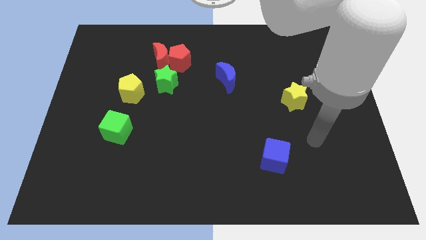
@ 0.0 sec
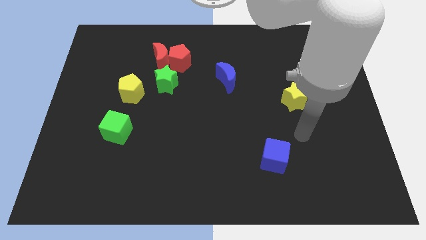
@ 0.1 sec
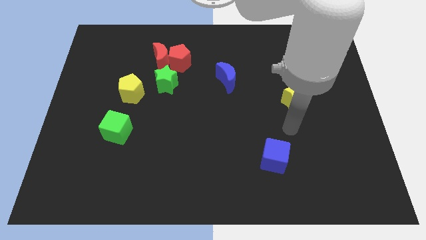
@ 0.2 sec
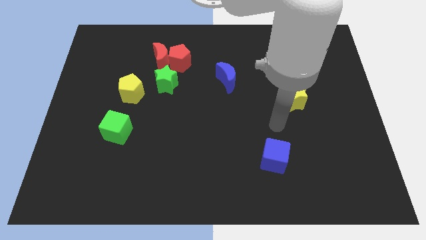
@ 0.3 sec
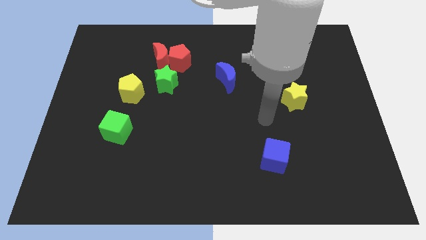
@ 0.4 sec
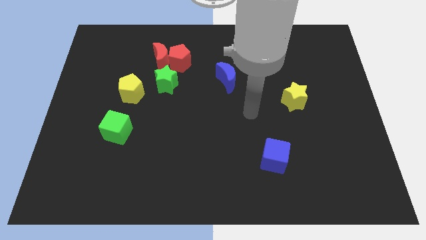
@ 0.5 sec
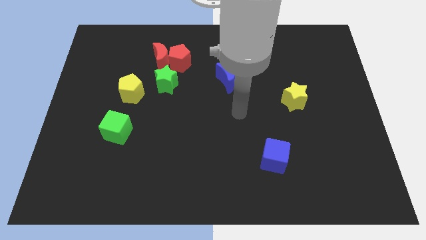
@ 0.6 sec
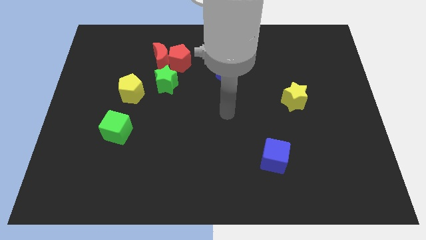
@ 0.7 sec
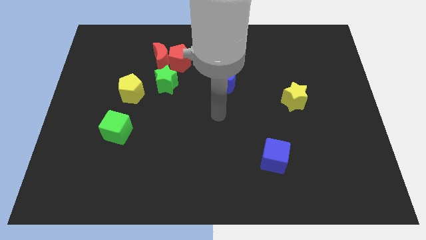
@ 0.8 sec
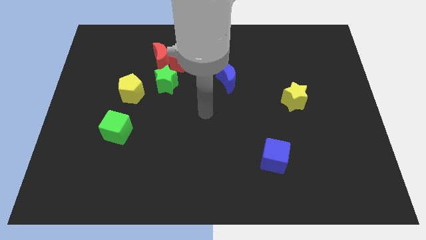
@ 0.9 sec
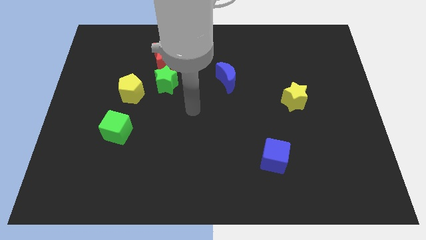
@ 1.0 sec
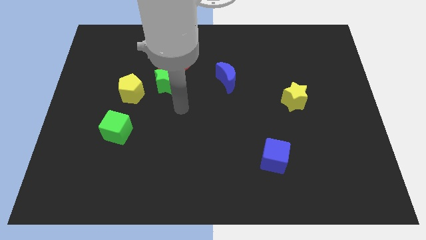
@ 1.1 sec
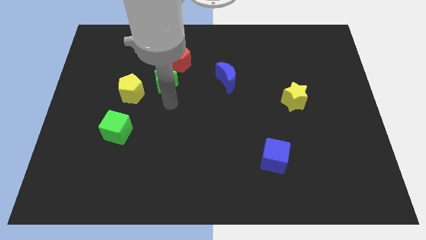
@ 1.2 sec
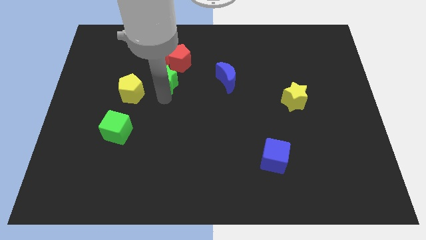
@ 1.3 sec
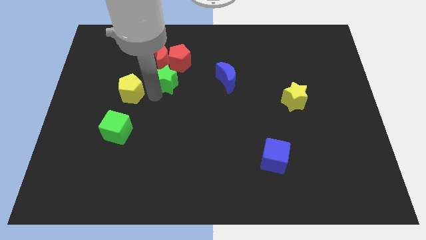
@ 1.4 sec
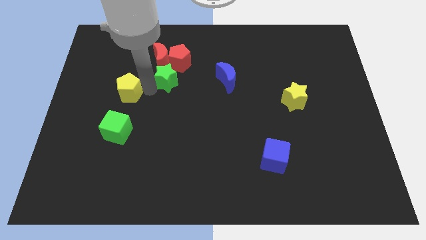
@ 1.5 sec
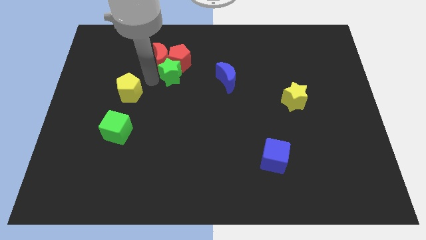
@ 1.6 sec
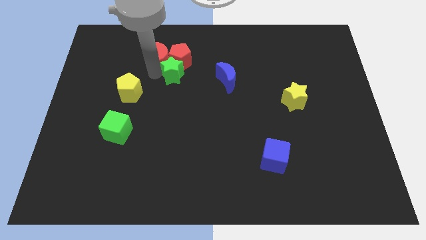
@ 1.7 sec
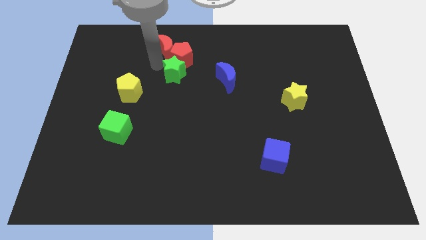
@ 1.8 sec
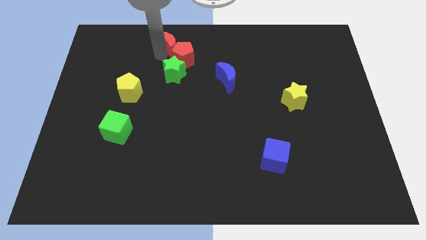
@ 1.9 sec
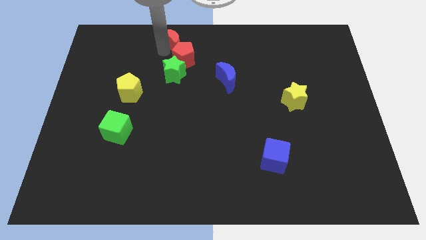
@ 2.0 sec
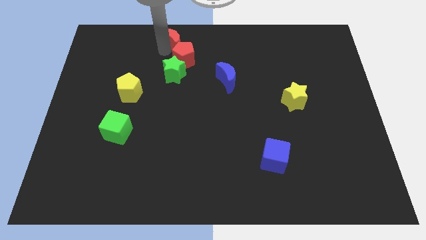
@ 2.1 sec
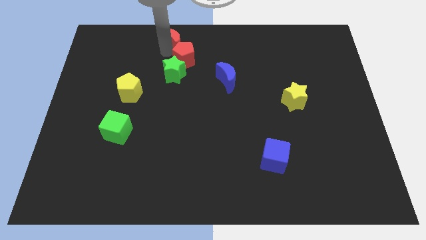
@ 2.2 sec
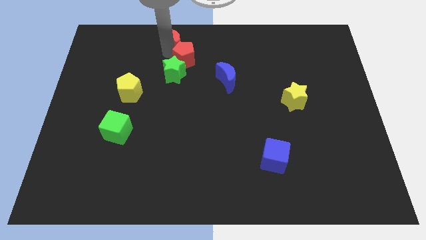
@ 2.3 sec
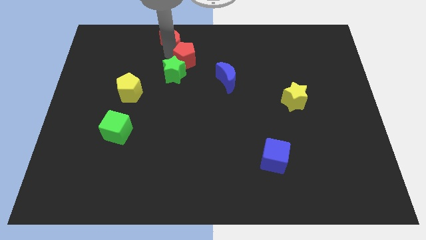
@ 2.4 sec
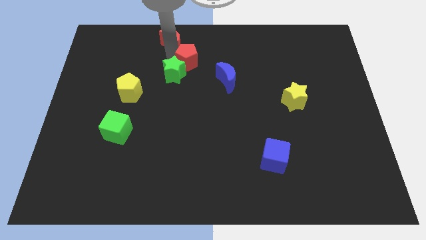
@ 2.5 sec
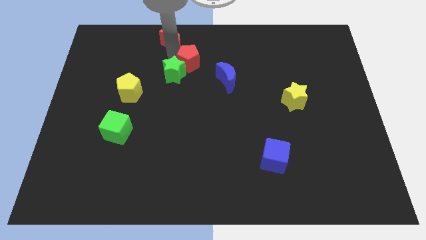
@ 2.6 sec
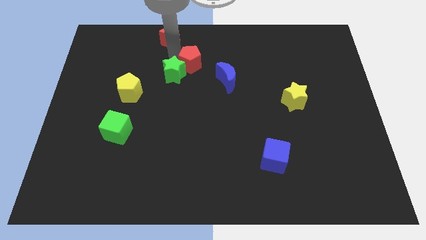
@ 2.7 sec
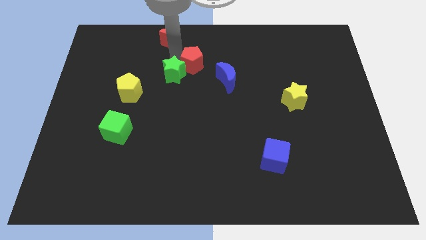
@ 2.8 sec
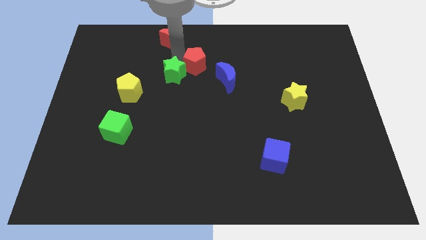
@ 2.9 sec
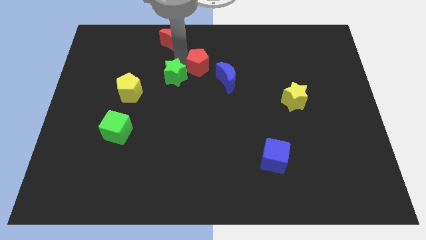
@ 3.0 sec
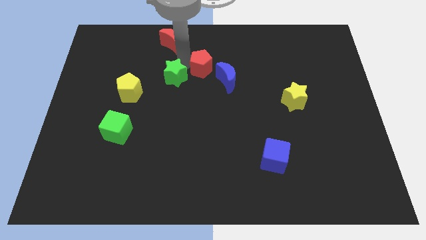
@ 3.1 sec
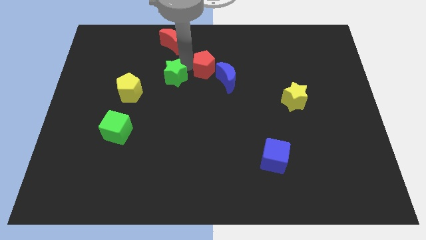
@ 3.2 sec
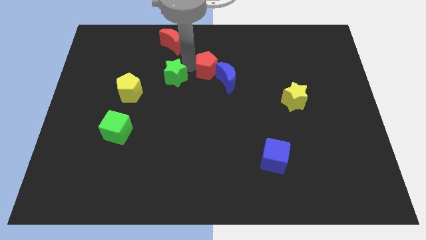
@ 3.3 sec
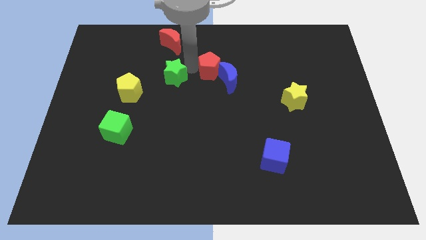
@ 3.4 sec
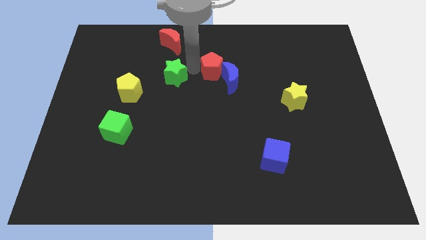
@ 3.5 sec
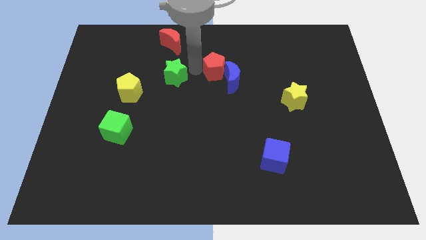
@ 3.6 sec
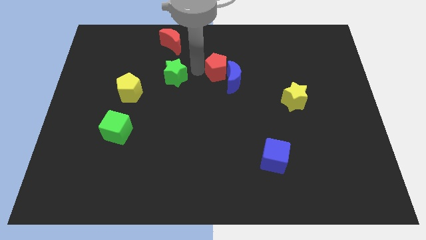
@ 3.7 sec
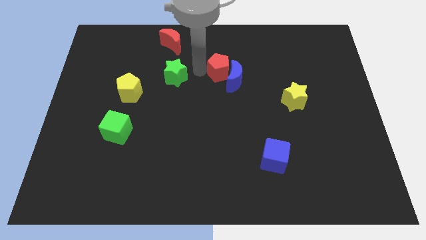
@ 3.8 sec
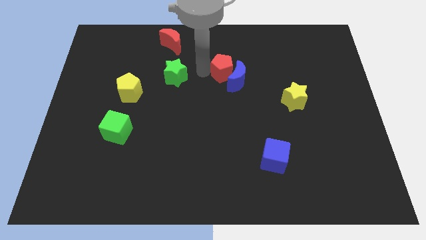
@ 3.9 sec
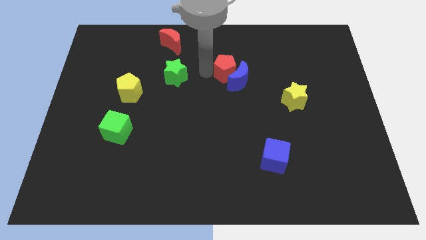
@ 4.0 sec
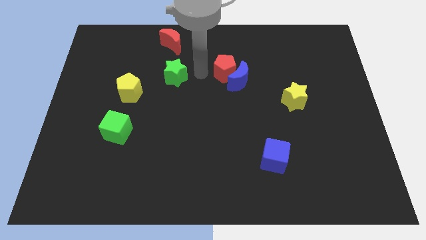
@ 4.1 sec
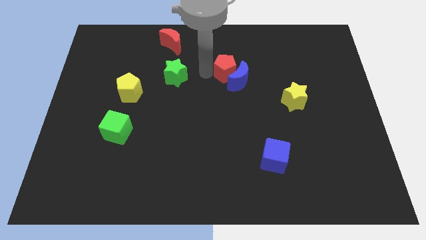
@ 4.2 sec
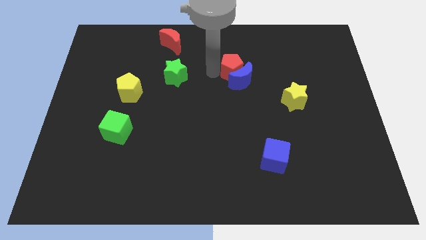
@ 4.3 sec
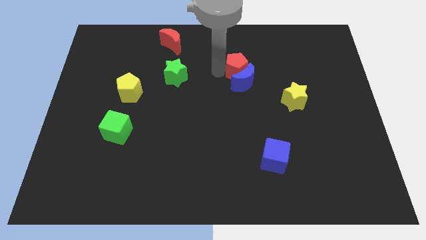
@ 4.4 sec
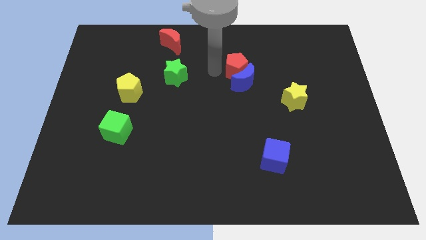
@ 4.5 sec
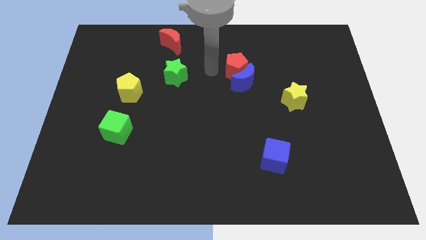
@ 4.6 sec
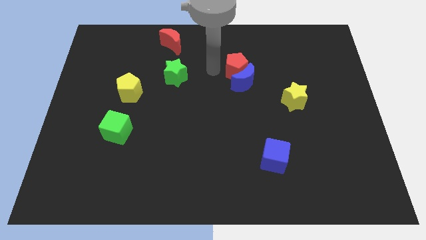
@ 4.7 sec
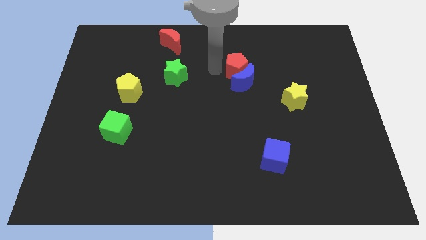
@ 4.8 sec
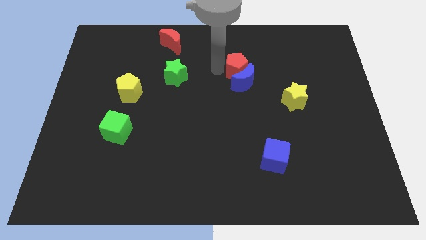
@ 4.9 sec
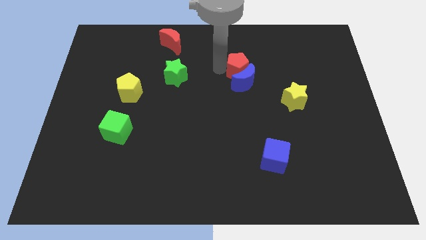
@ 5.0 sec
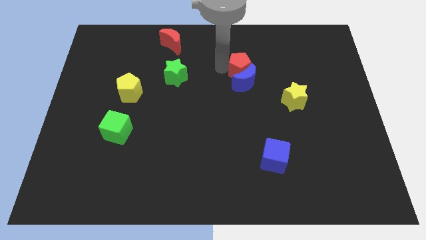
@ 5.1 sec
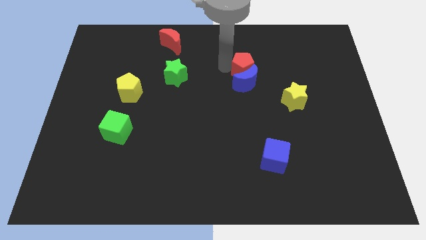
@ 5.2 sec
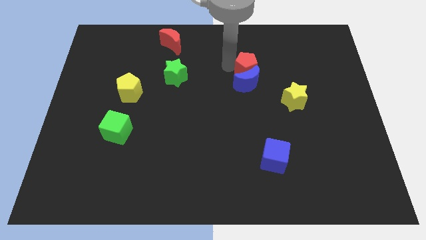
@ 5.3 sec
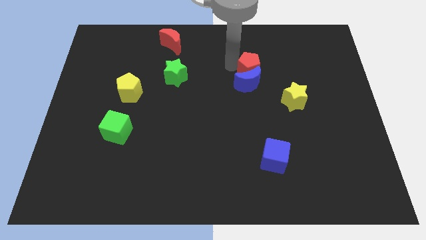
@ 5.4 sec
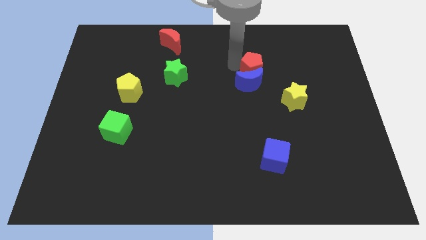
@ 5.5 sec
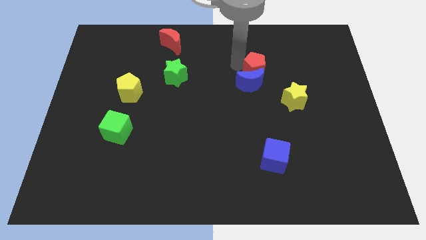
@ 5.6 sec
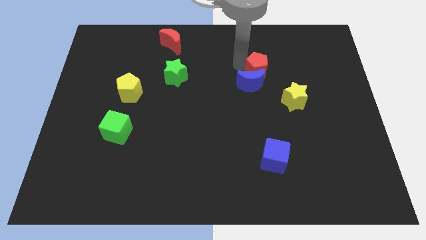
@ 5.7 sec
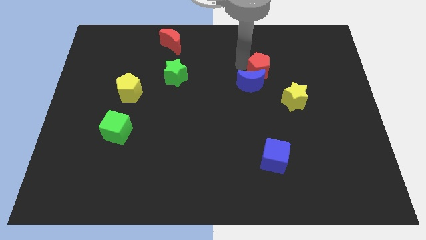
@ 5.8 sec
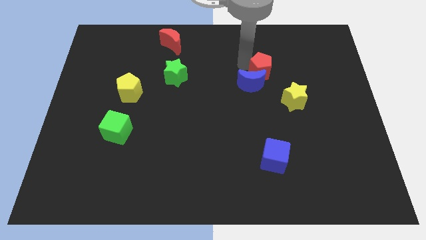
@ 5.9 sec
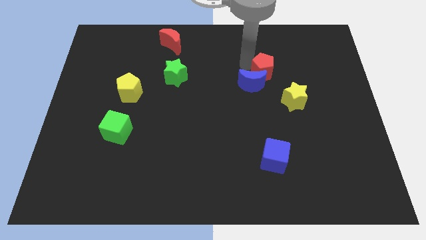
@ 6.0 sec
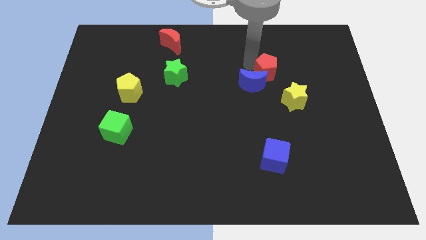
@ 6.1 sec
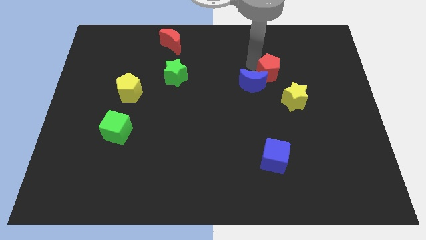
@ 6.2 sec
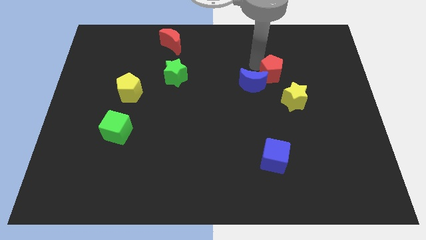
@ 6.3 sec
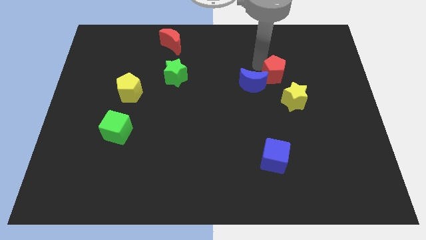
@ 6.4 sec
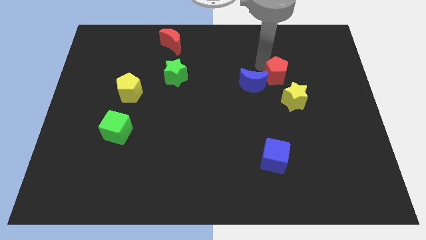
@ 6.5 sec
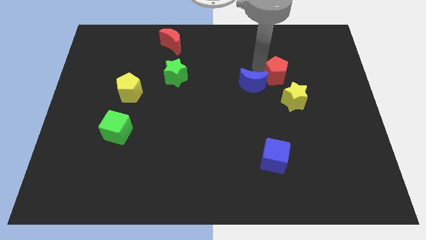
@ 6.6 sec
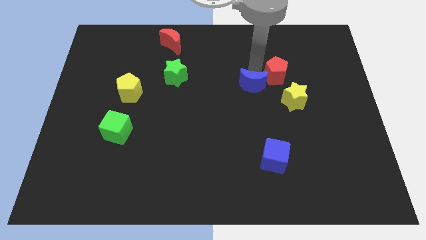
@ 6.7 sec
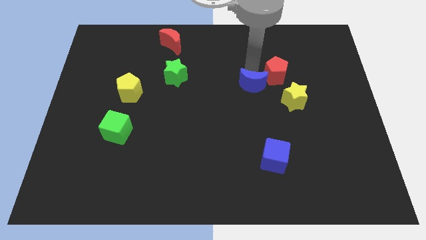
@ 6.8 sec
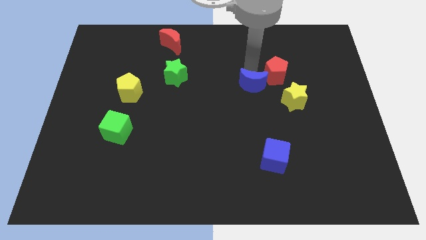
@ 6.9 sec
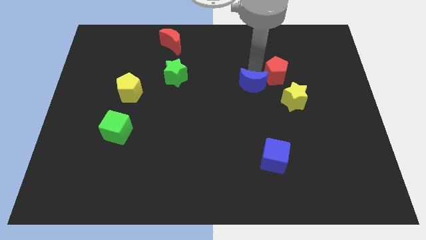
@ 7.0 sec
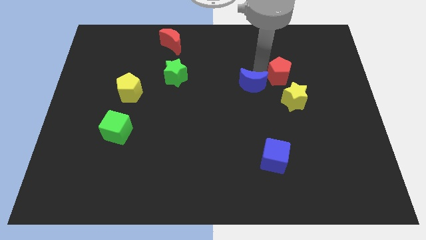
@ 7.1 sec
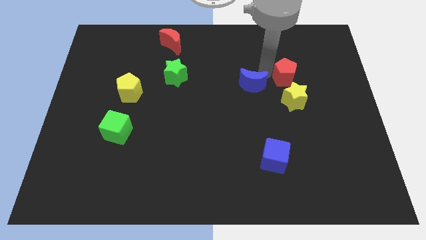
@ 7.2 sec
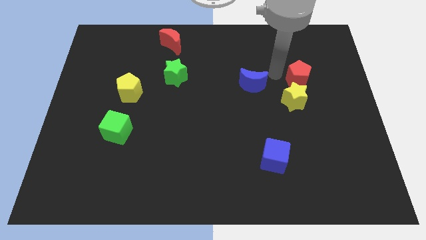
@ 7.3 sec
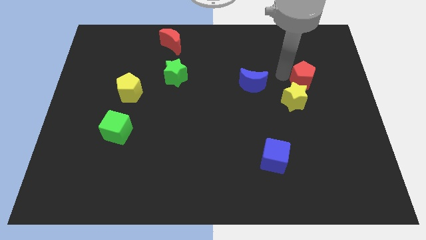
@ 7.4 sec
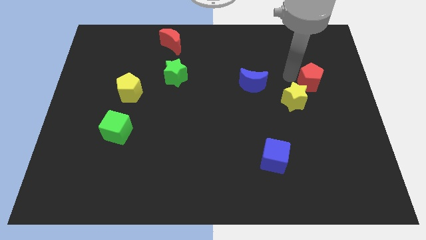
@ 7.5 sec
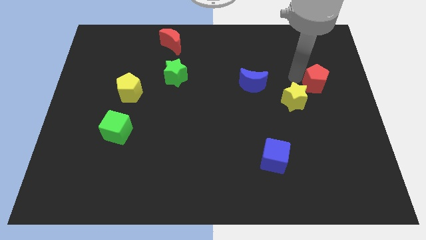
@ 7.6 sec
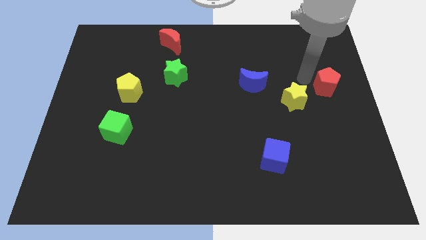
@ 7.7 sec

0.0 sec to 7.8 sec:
slide the red pentagon to the right side of the board
